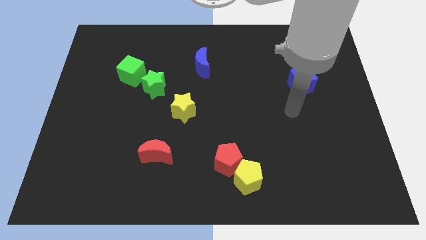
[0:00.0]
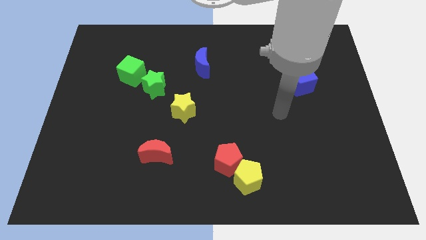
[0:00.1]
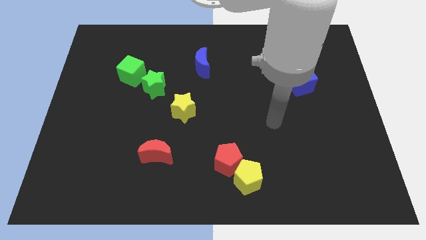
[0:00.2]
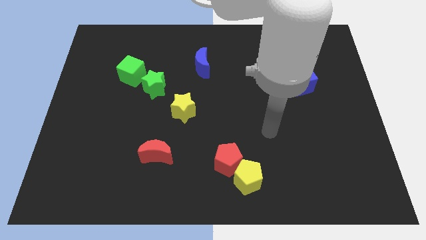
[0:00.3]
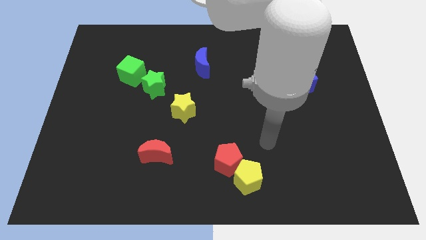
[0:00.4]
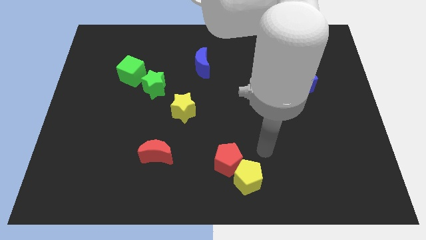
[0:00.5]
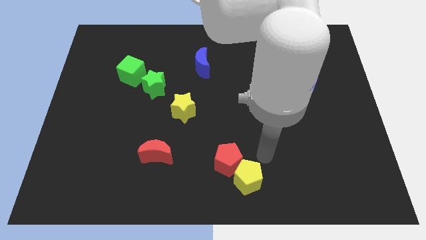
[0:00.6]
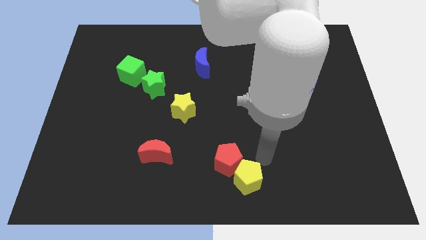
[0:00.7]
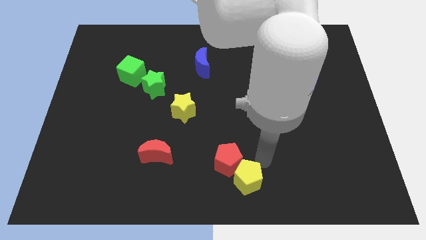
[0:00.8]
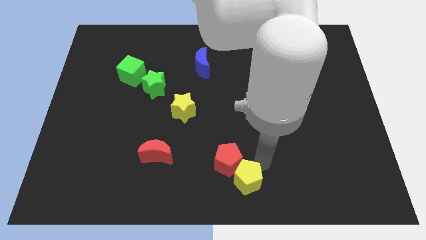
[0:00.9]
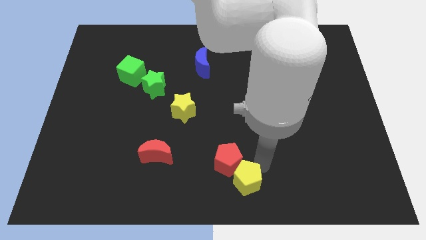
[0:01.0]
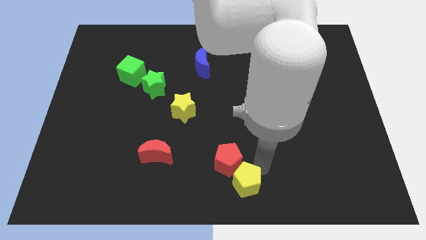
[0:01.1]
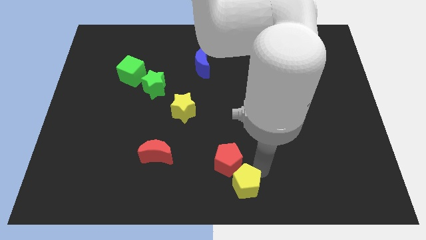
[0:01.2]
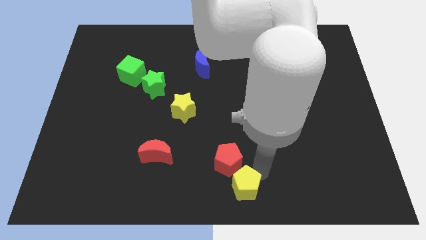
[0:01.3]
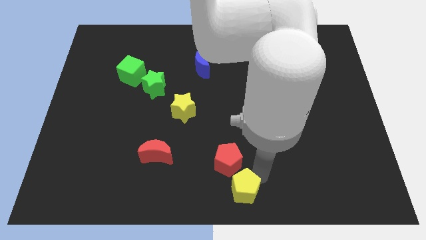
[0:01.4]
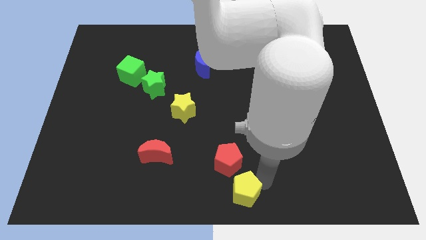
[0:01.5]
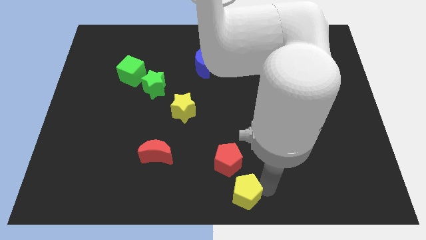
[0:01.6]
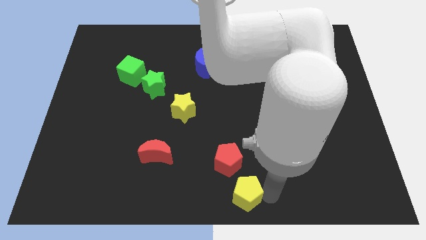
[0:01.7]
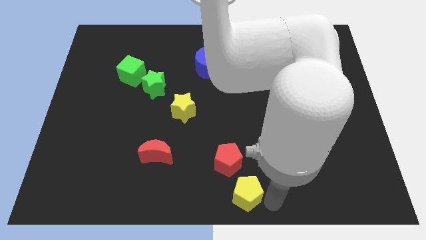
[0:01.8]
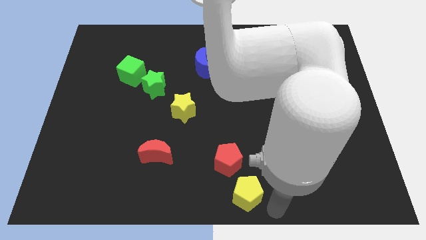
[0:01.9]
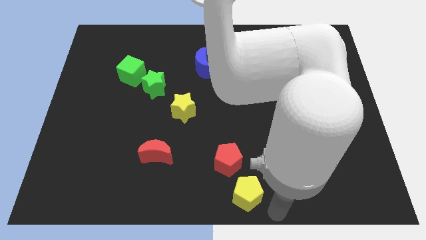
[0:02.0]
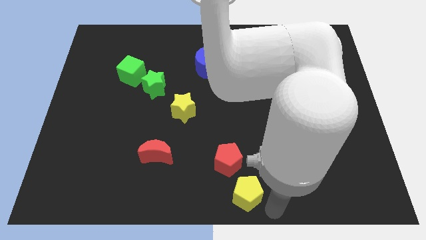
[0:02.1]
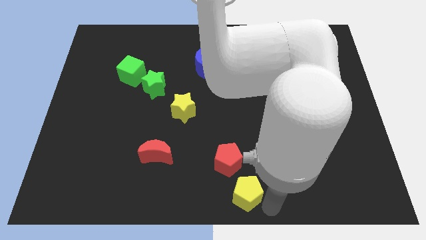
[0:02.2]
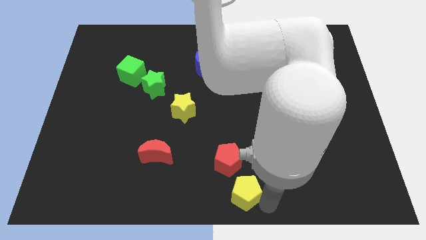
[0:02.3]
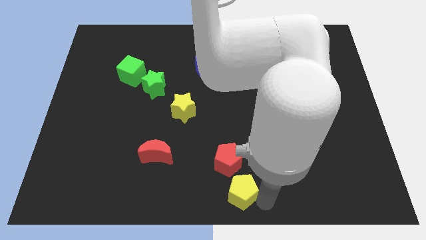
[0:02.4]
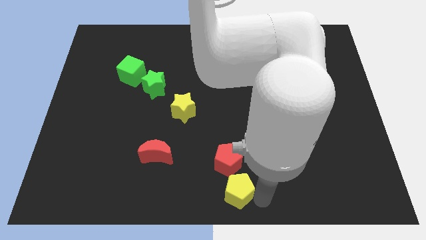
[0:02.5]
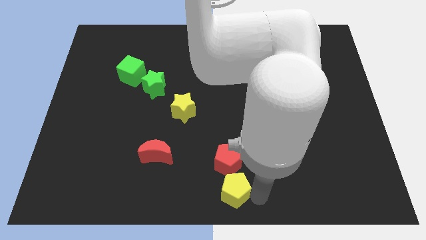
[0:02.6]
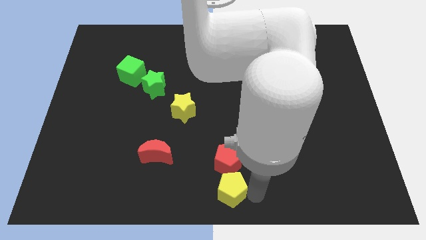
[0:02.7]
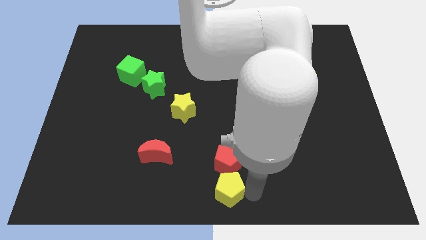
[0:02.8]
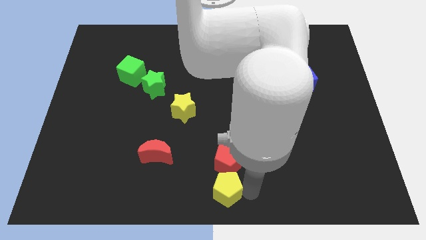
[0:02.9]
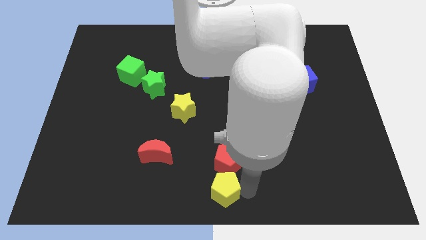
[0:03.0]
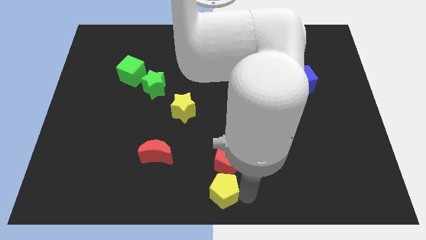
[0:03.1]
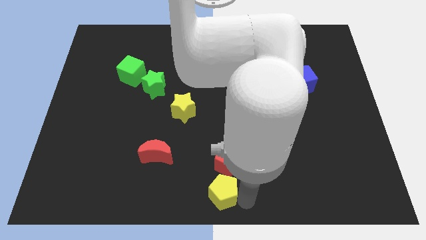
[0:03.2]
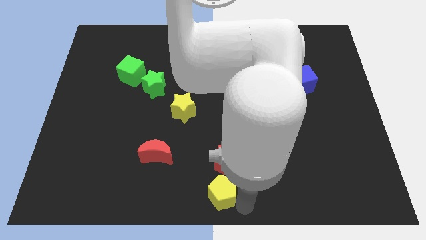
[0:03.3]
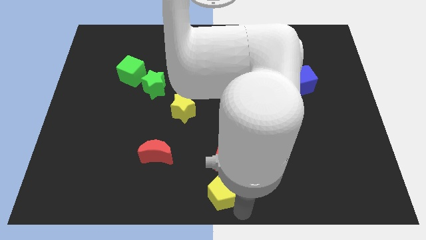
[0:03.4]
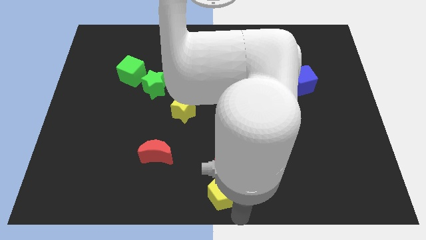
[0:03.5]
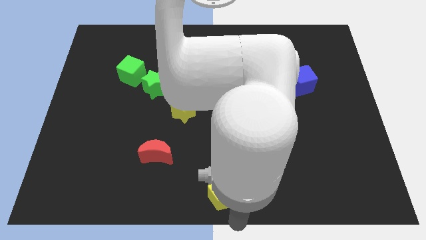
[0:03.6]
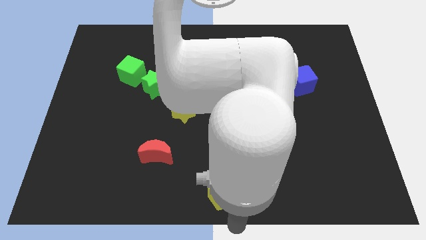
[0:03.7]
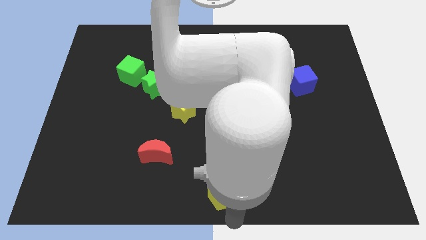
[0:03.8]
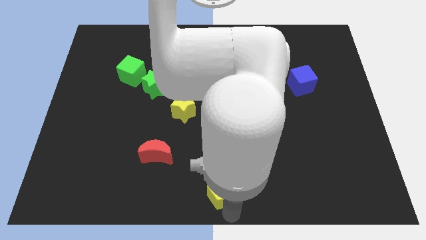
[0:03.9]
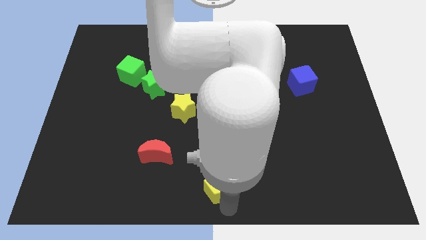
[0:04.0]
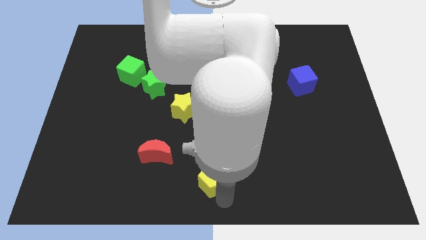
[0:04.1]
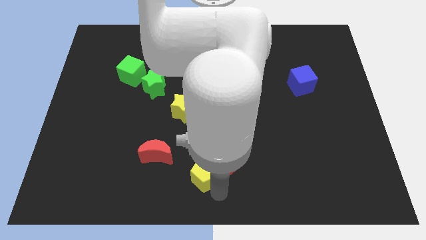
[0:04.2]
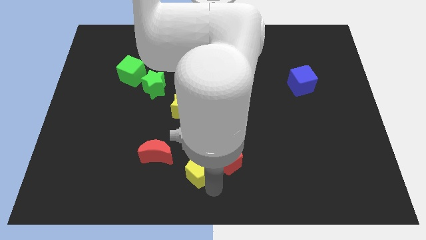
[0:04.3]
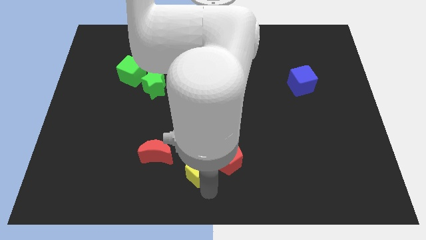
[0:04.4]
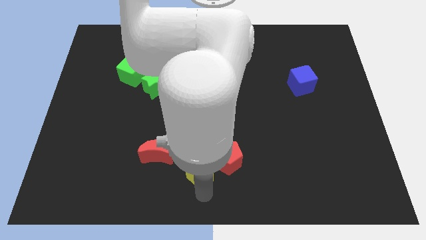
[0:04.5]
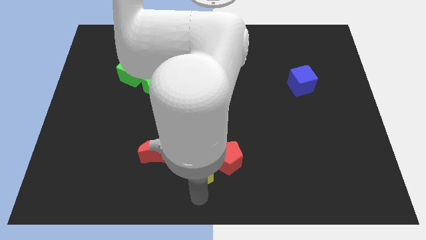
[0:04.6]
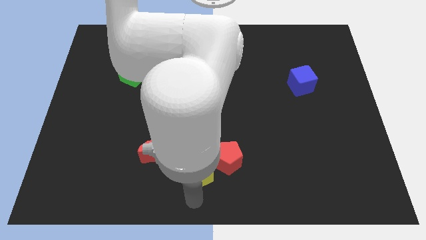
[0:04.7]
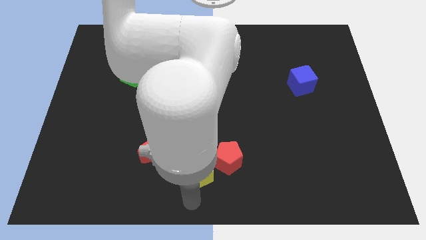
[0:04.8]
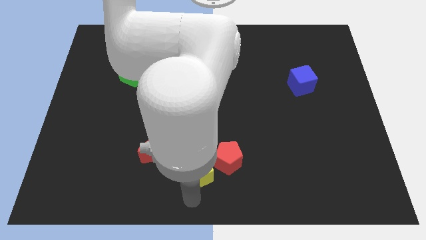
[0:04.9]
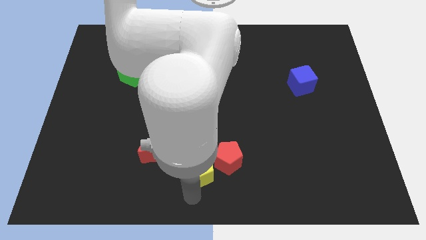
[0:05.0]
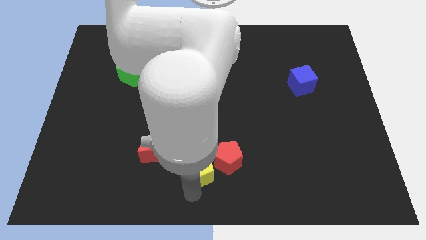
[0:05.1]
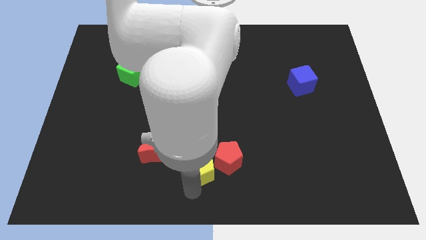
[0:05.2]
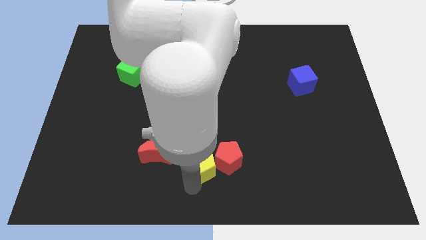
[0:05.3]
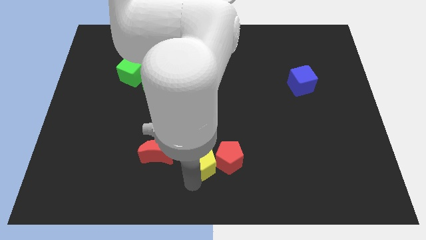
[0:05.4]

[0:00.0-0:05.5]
push the yellow pentagon to the top left side of the red pentagon

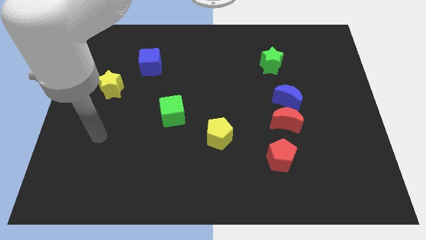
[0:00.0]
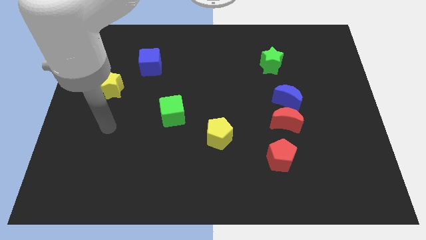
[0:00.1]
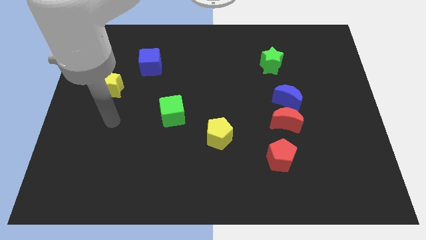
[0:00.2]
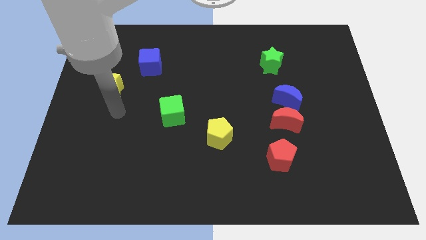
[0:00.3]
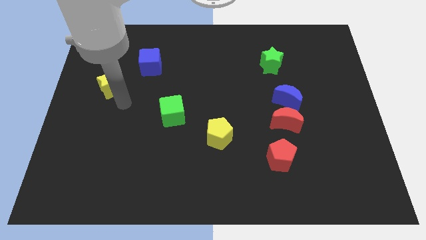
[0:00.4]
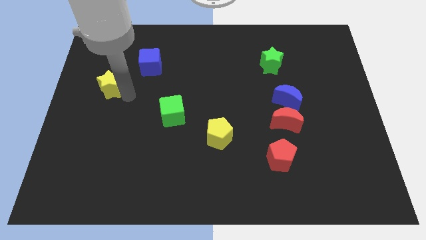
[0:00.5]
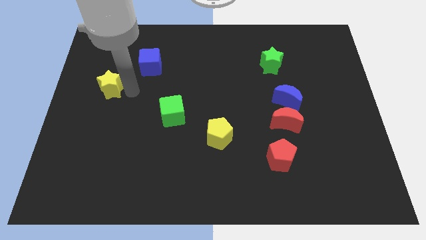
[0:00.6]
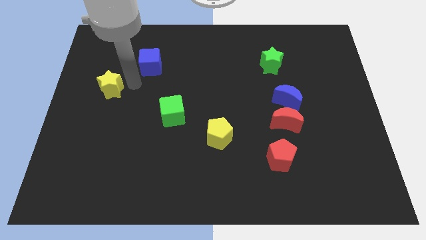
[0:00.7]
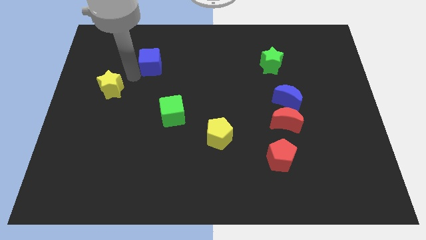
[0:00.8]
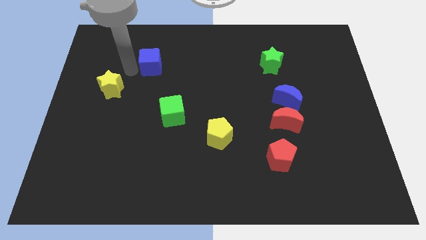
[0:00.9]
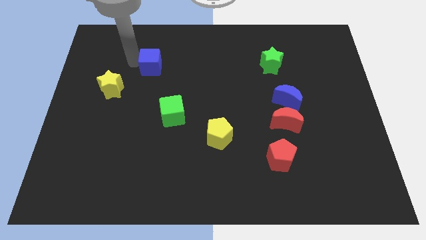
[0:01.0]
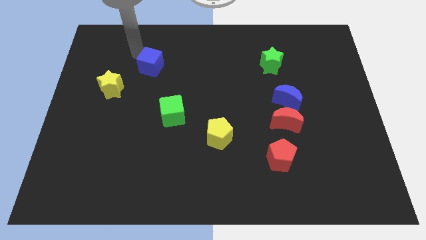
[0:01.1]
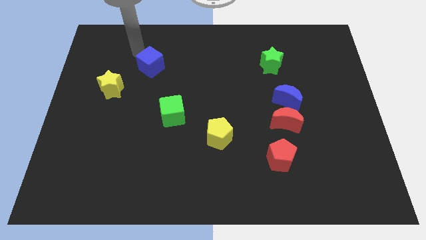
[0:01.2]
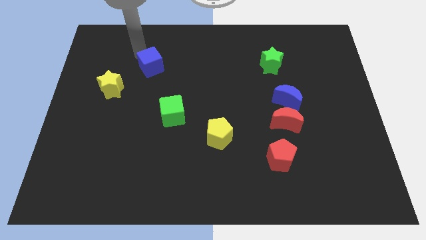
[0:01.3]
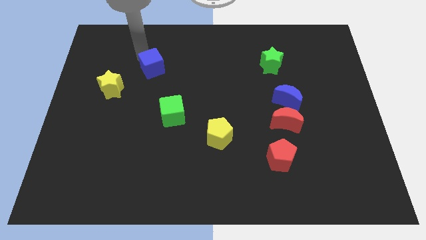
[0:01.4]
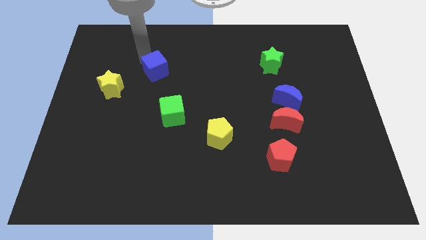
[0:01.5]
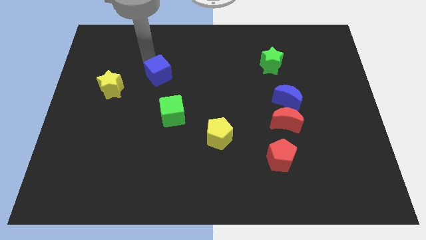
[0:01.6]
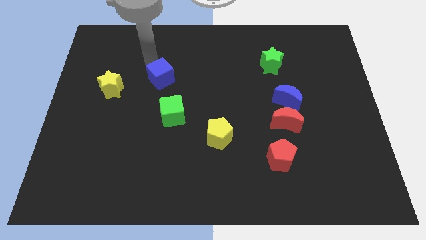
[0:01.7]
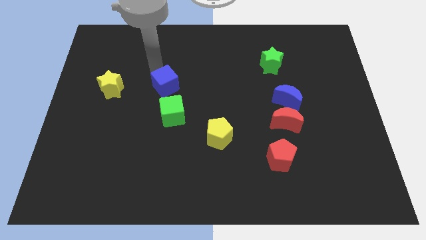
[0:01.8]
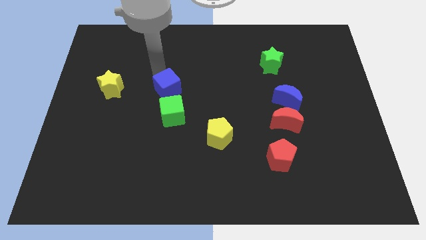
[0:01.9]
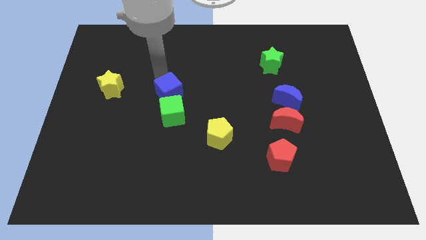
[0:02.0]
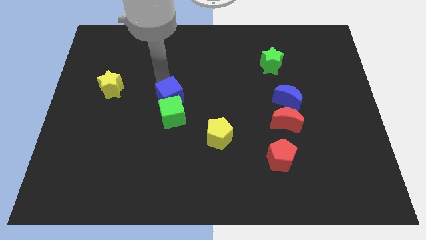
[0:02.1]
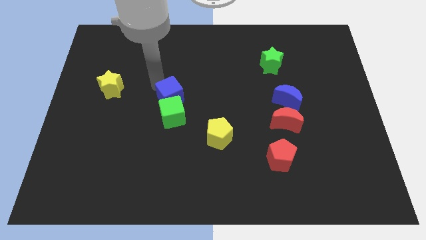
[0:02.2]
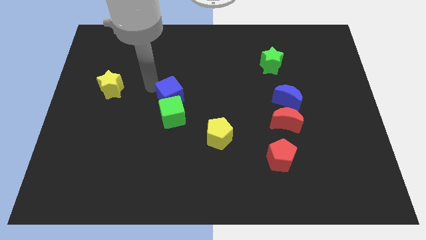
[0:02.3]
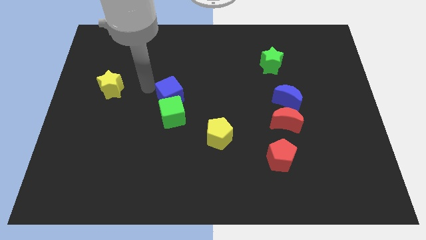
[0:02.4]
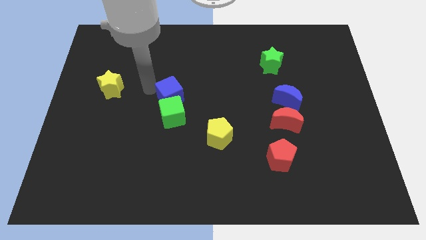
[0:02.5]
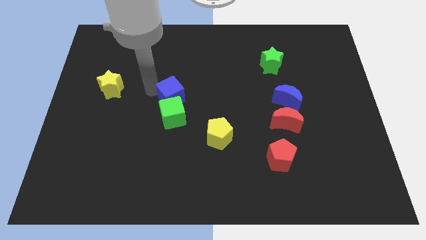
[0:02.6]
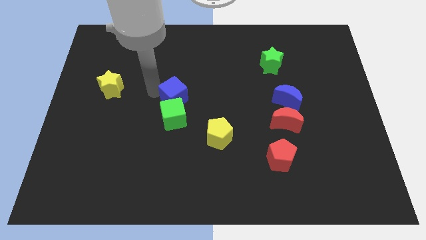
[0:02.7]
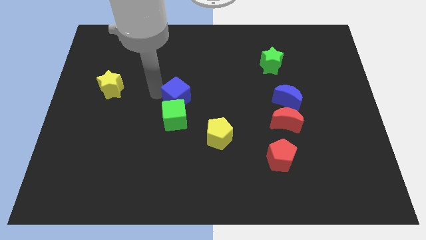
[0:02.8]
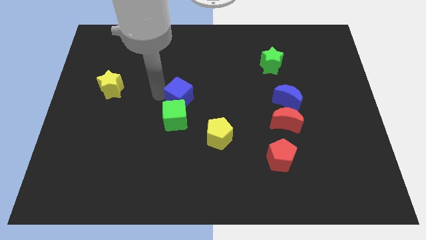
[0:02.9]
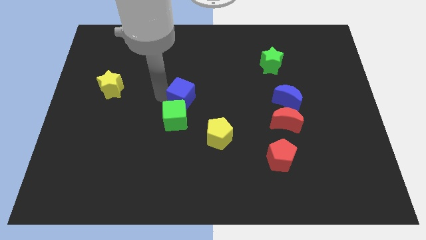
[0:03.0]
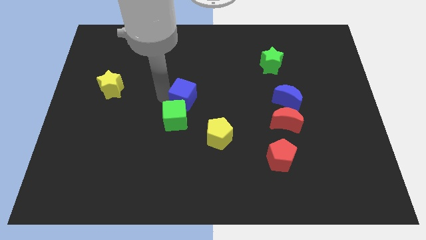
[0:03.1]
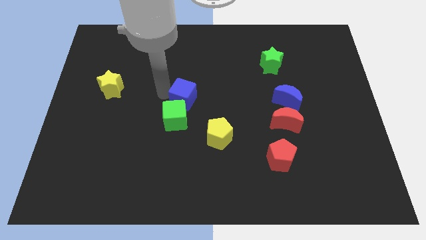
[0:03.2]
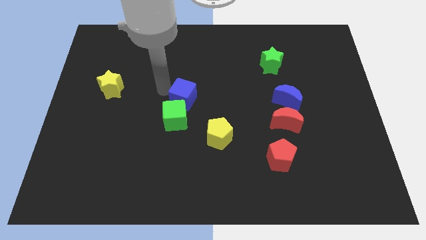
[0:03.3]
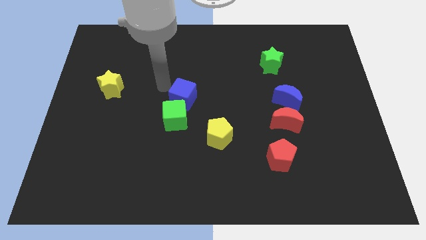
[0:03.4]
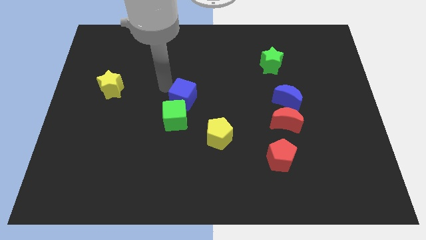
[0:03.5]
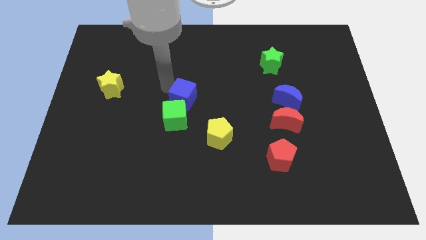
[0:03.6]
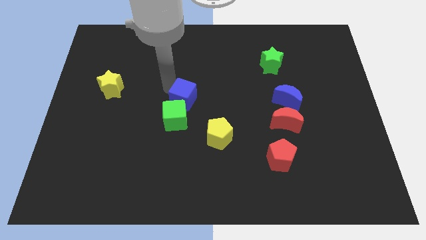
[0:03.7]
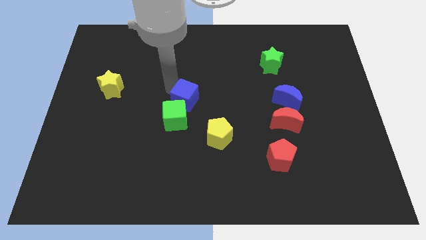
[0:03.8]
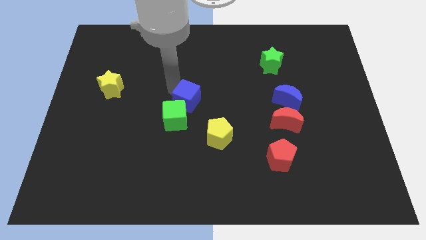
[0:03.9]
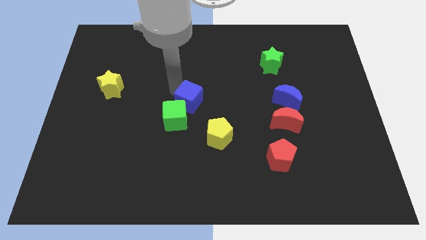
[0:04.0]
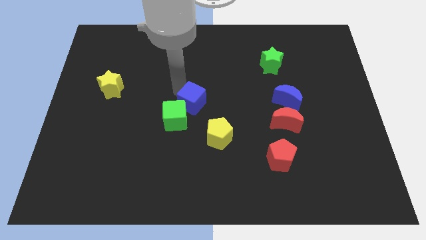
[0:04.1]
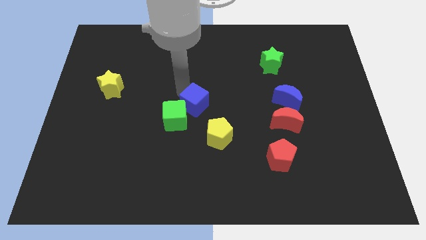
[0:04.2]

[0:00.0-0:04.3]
slide the blue cube right of the green cube
